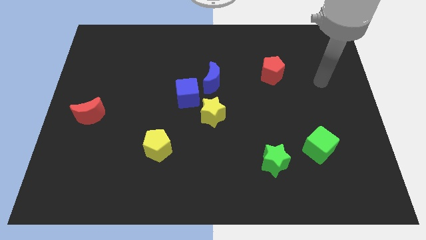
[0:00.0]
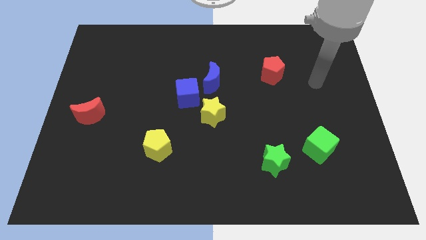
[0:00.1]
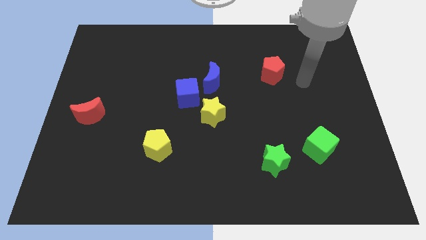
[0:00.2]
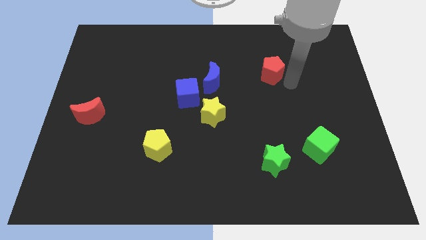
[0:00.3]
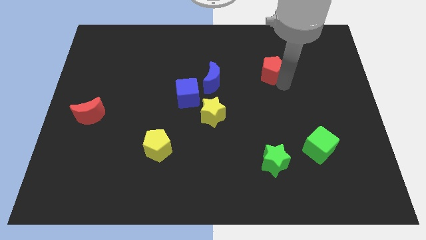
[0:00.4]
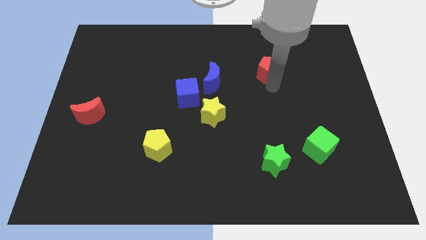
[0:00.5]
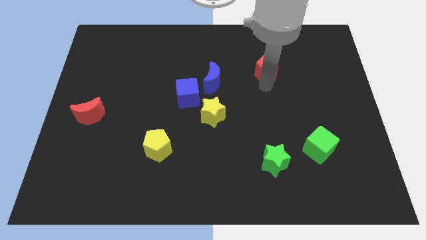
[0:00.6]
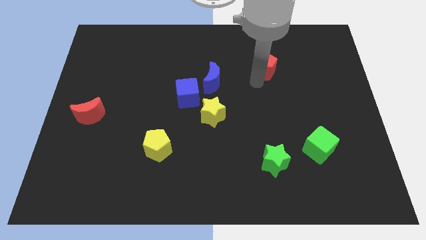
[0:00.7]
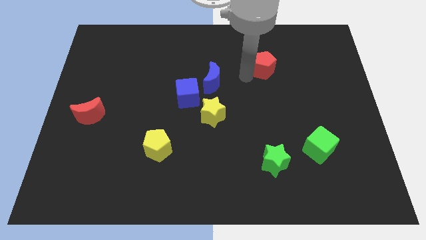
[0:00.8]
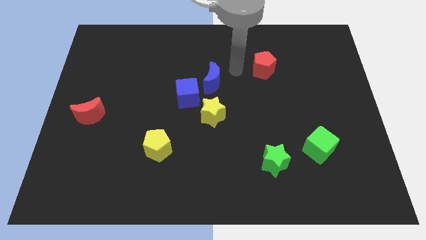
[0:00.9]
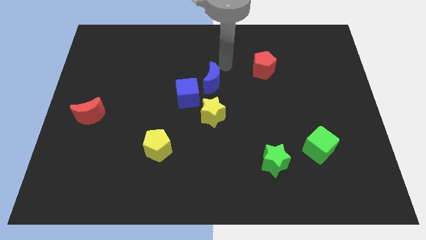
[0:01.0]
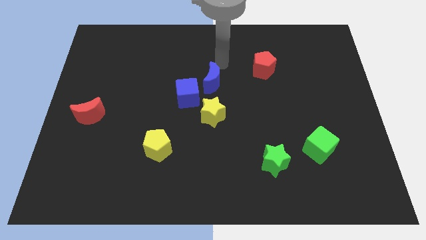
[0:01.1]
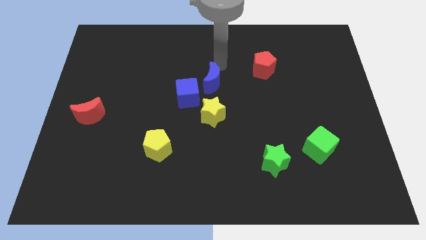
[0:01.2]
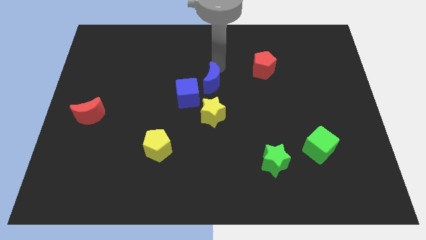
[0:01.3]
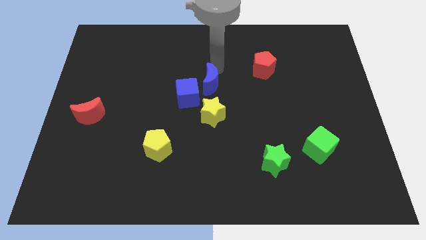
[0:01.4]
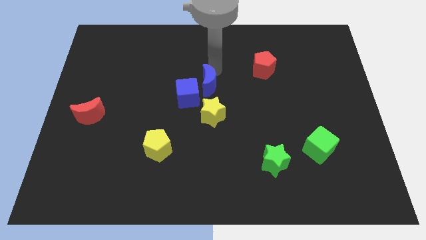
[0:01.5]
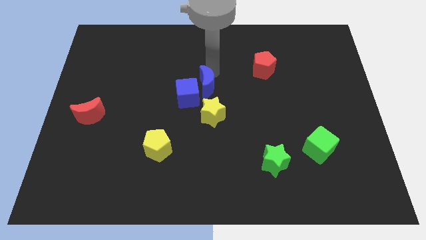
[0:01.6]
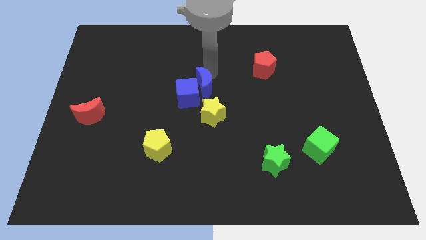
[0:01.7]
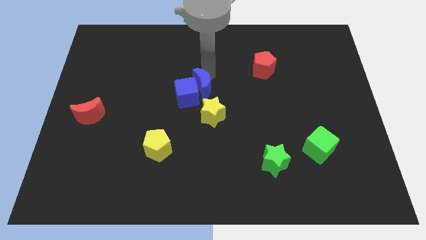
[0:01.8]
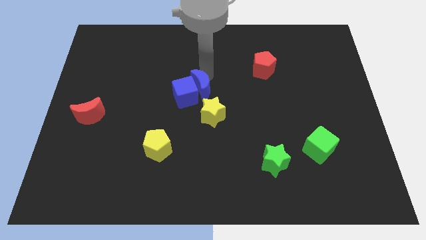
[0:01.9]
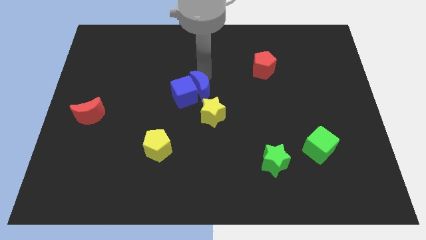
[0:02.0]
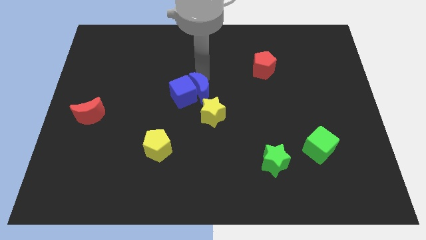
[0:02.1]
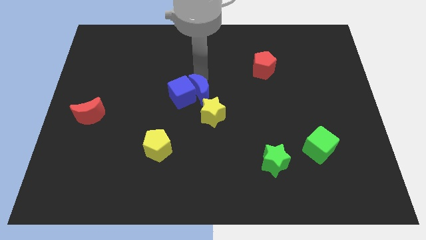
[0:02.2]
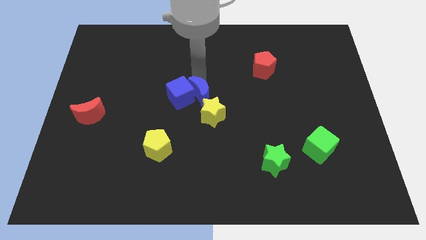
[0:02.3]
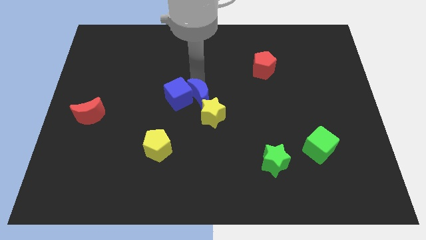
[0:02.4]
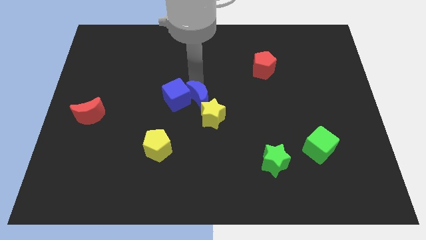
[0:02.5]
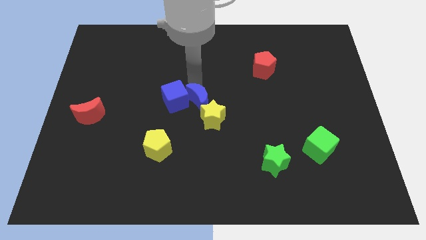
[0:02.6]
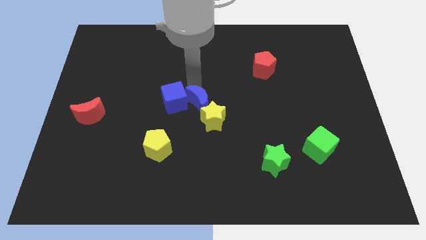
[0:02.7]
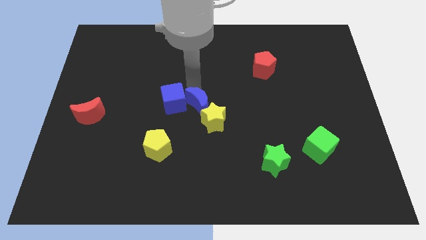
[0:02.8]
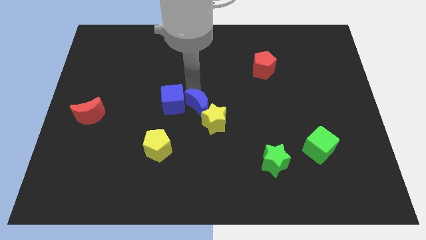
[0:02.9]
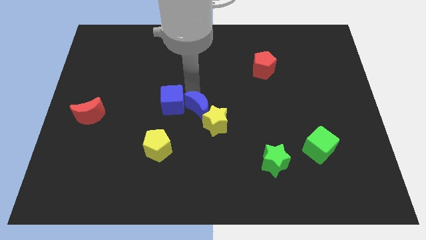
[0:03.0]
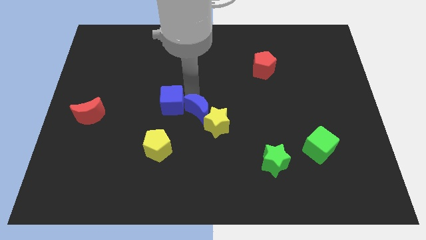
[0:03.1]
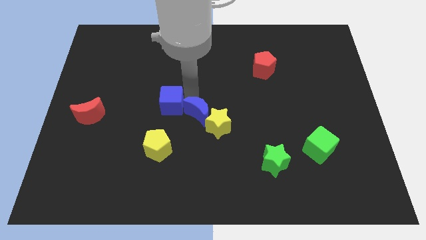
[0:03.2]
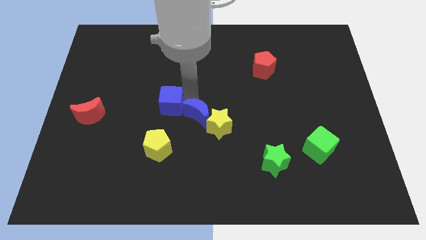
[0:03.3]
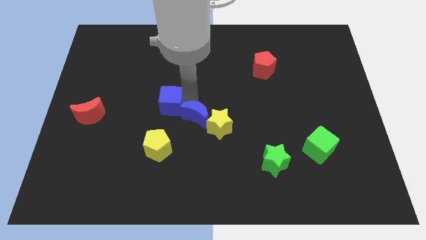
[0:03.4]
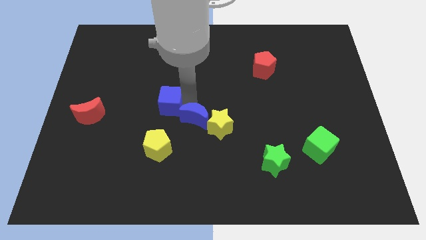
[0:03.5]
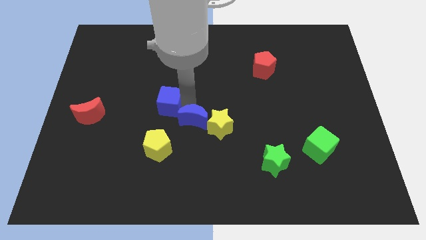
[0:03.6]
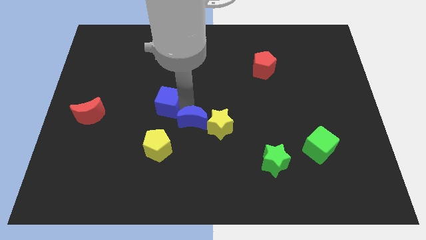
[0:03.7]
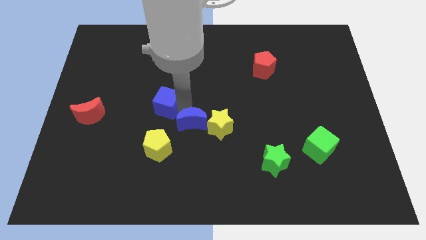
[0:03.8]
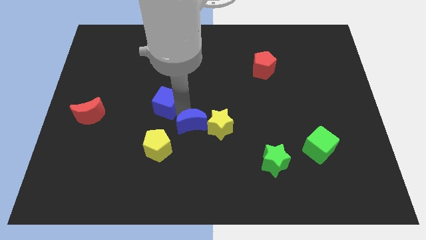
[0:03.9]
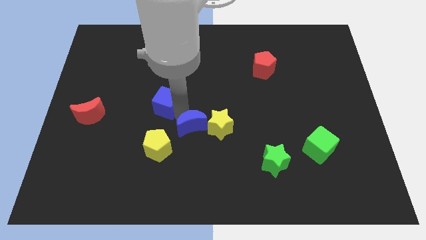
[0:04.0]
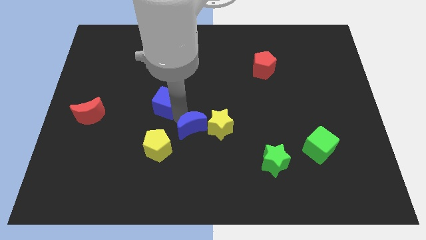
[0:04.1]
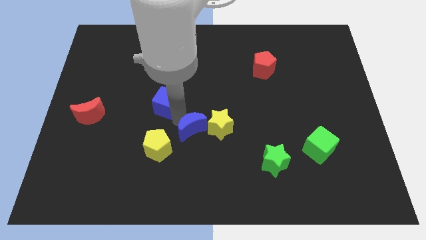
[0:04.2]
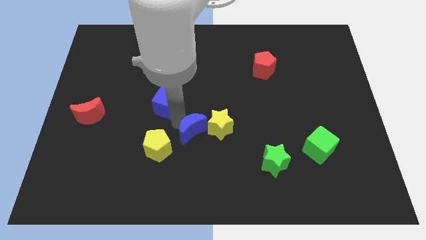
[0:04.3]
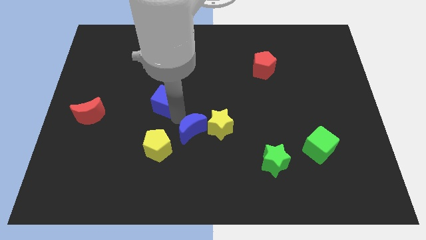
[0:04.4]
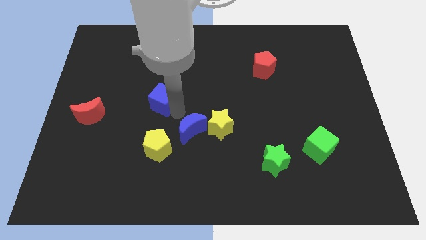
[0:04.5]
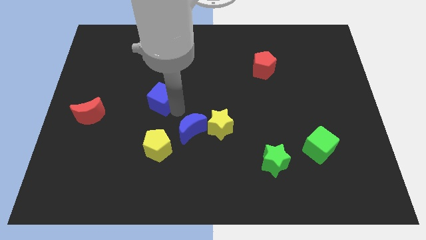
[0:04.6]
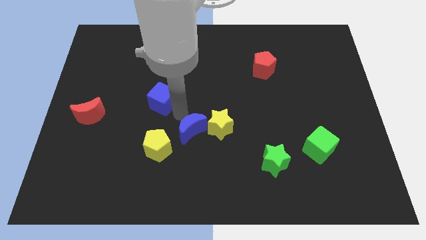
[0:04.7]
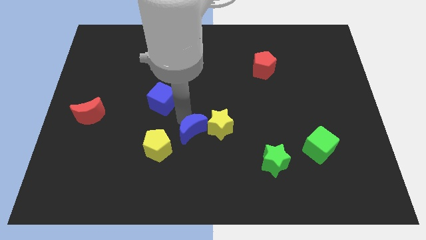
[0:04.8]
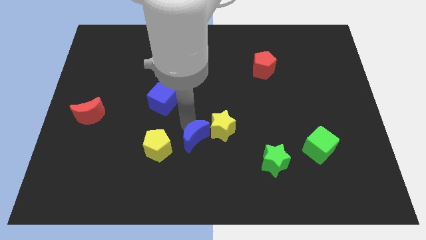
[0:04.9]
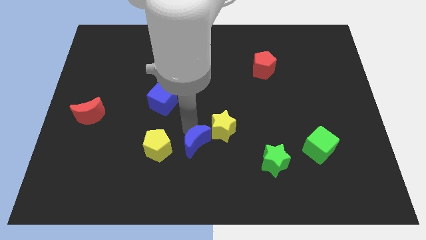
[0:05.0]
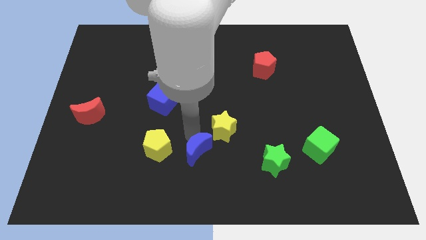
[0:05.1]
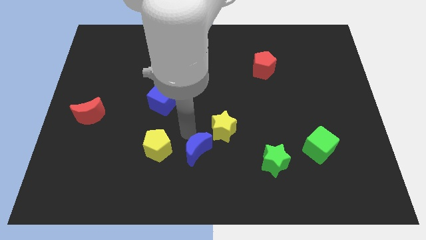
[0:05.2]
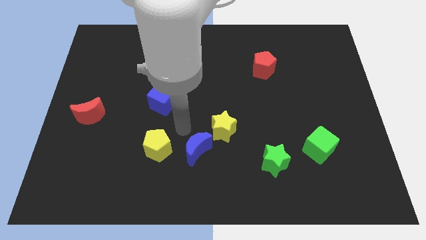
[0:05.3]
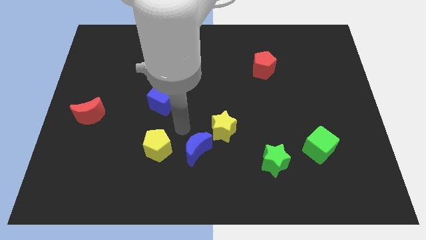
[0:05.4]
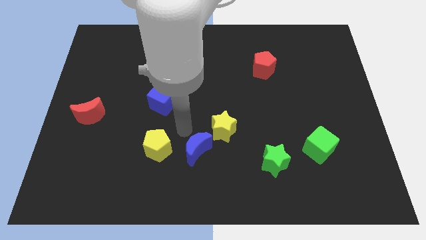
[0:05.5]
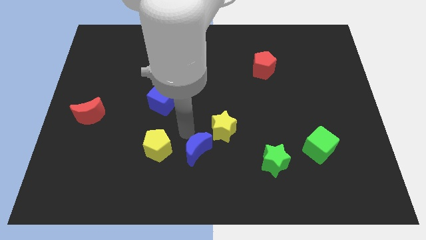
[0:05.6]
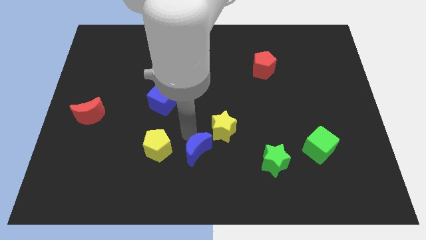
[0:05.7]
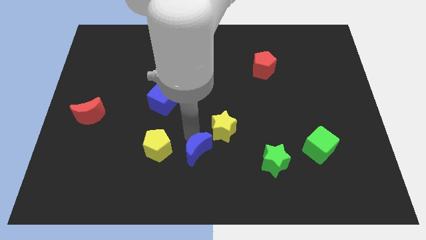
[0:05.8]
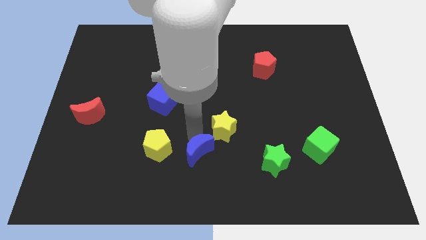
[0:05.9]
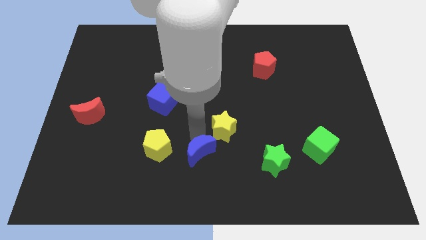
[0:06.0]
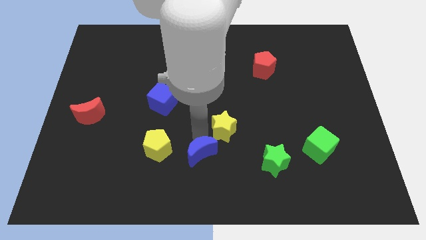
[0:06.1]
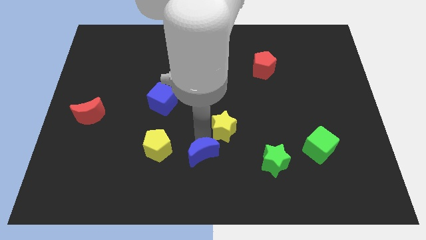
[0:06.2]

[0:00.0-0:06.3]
move the blue moon to the bottom
